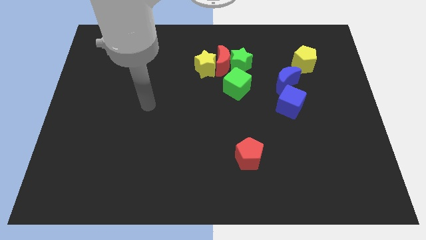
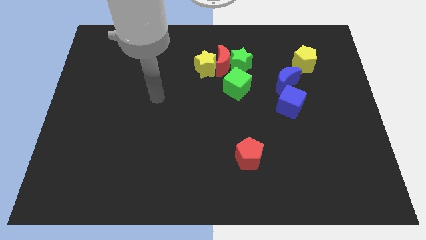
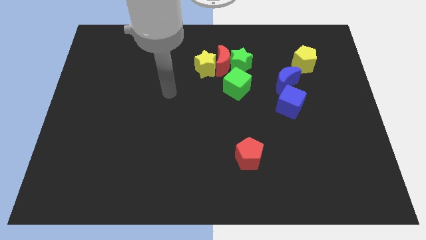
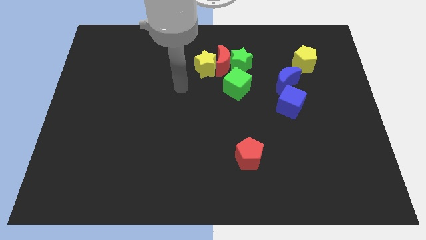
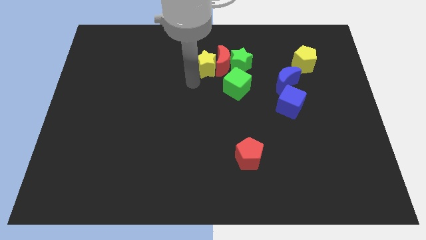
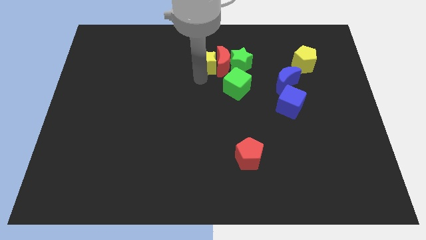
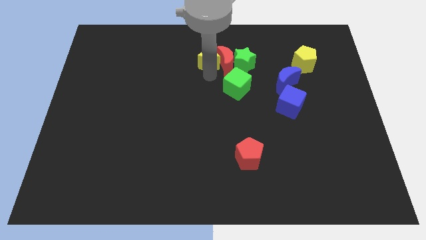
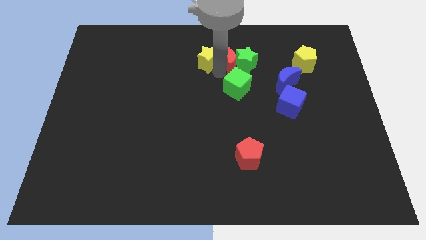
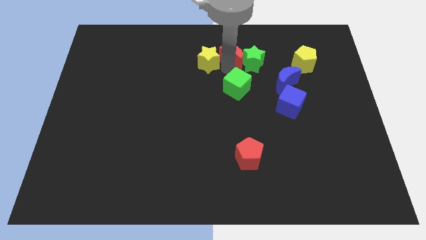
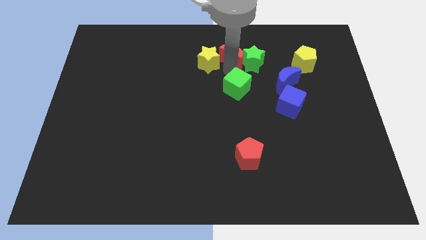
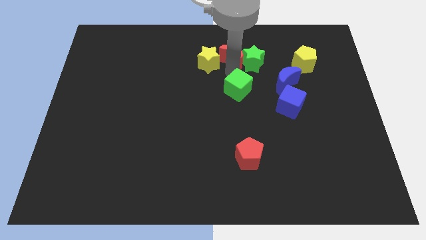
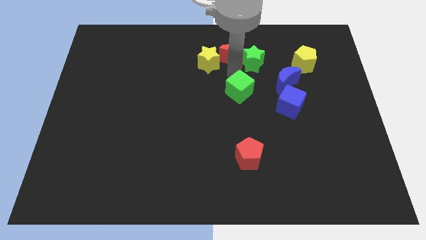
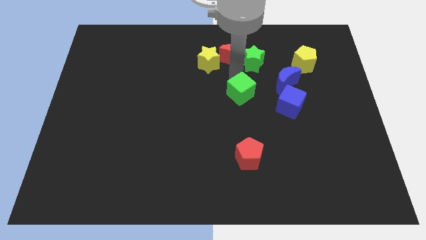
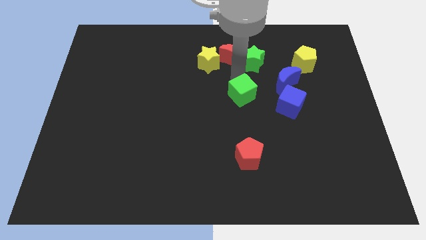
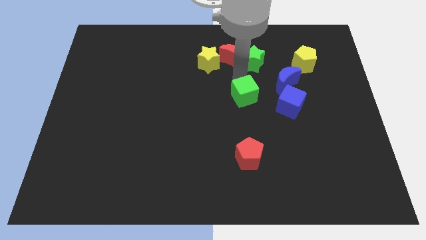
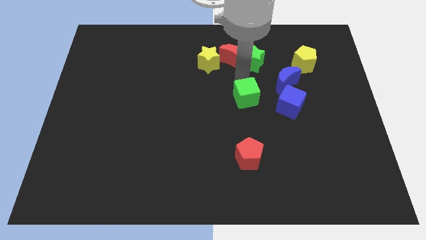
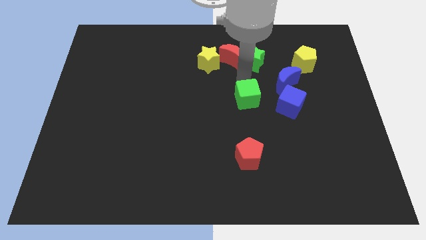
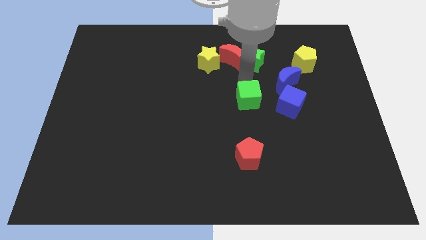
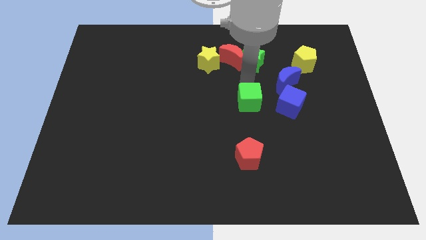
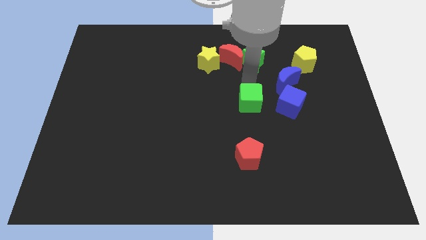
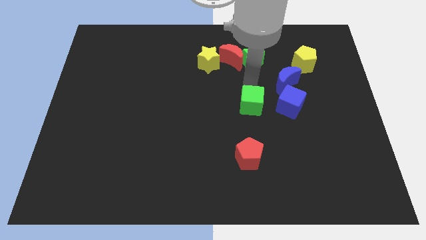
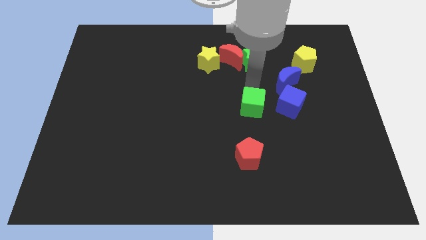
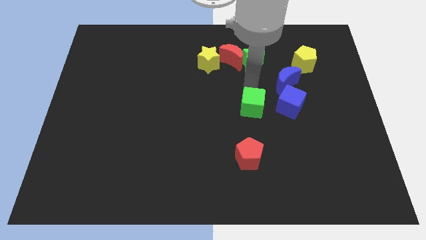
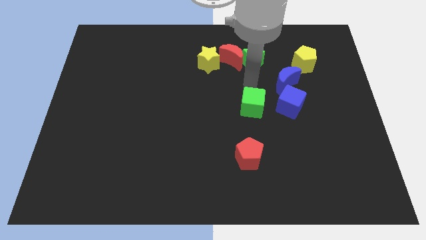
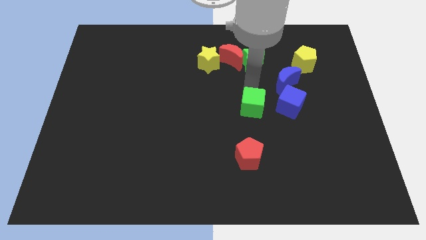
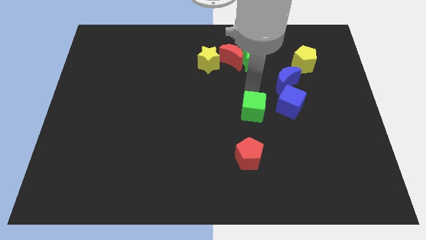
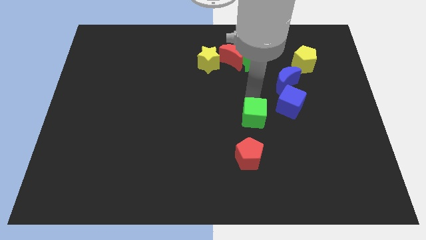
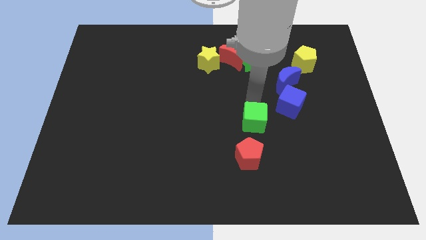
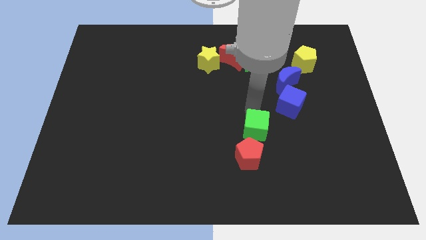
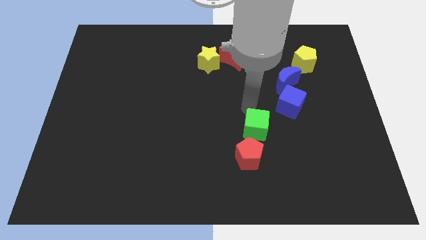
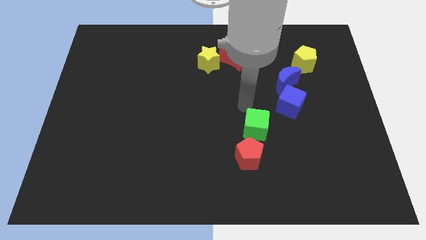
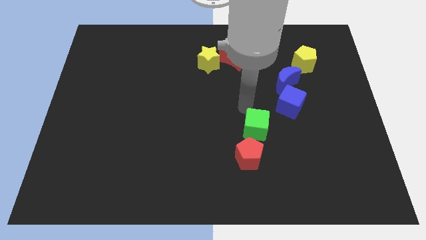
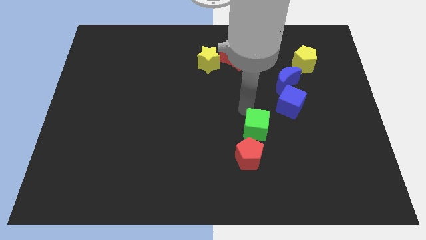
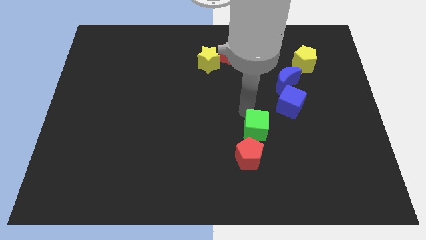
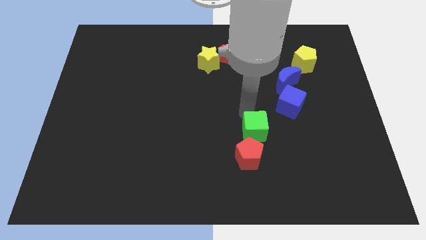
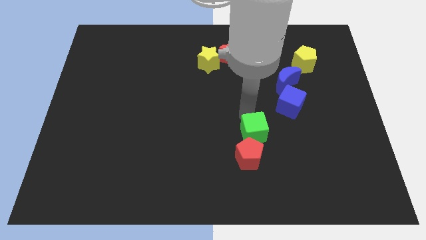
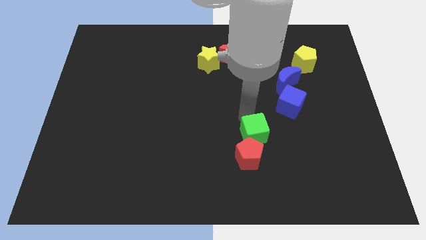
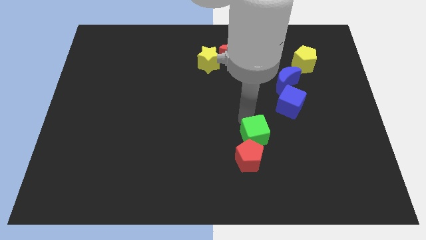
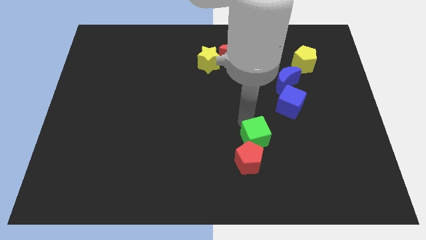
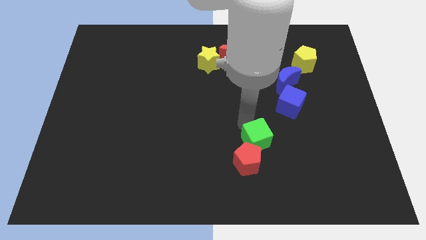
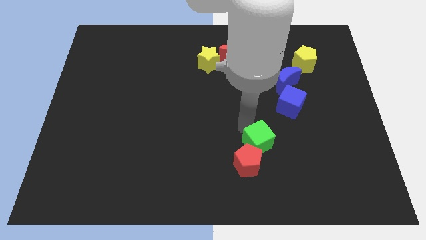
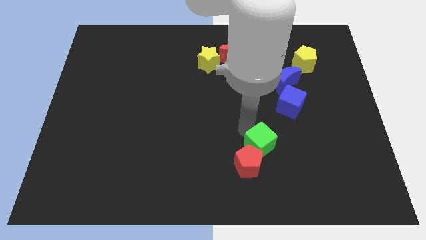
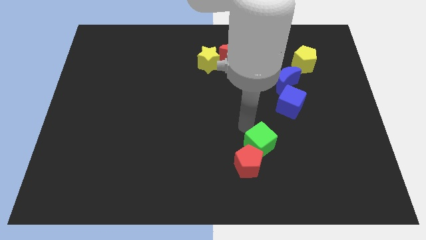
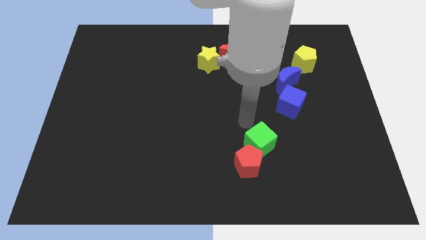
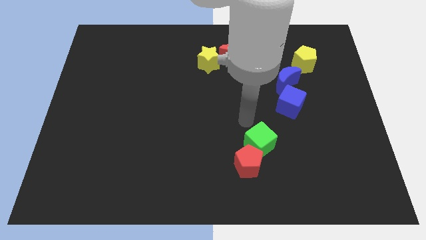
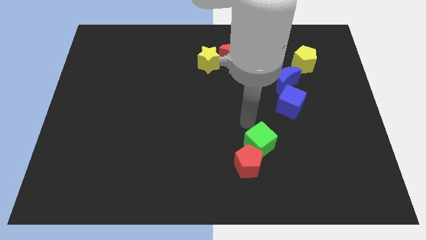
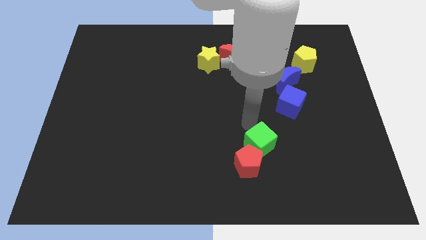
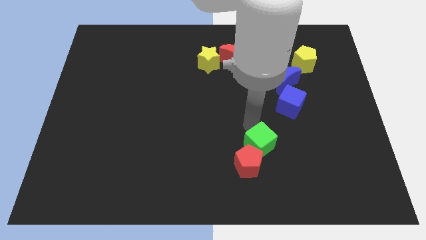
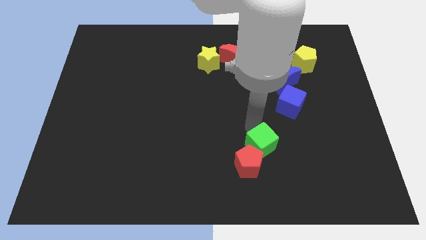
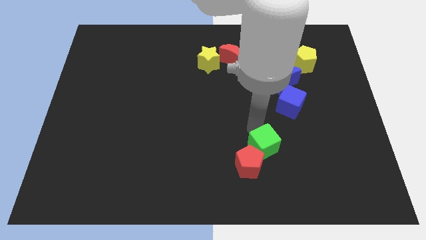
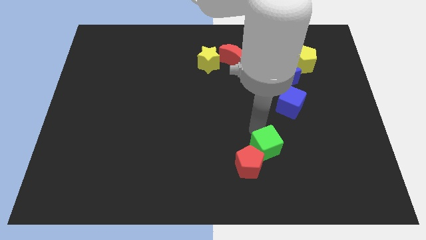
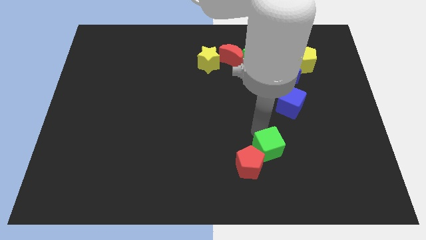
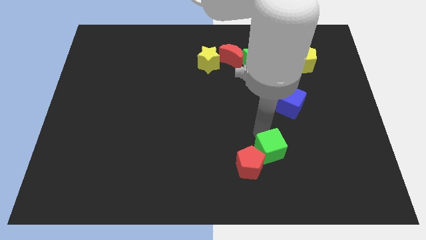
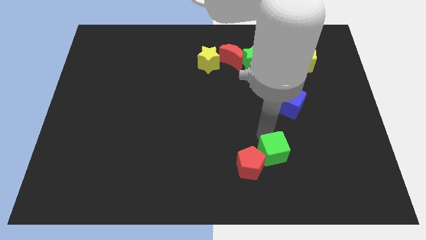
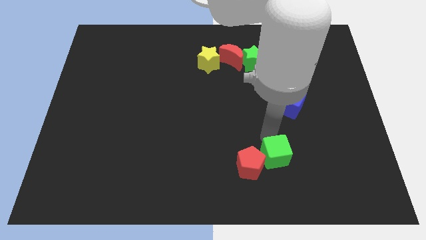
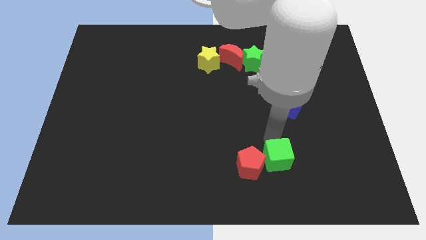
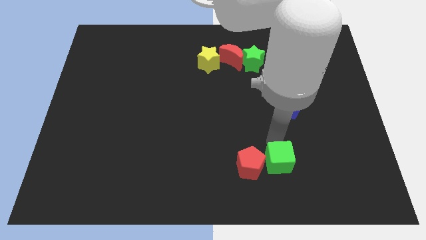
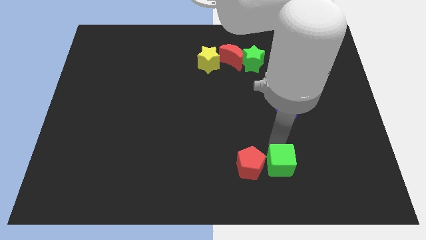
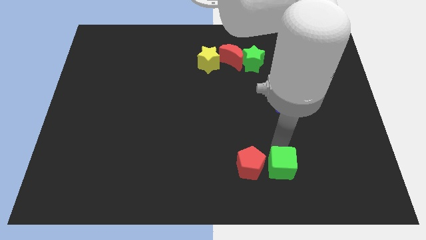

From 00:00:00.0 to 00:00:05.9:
slide the green cube diagonally down and to the right of the red pentagon
